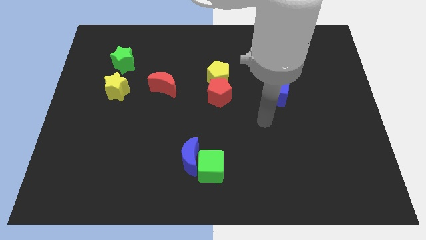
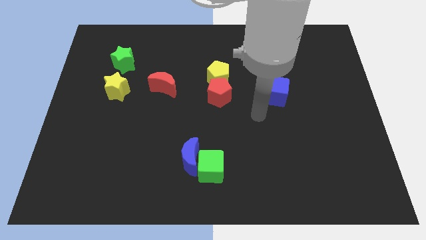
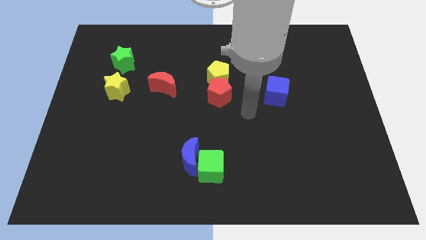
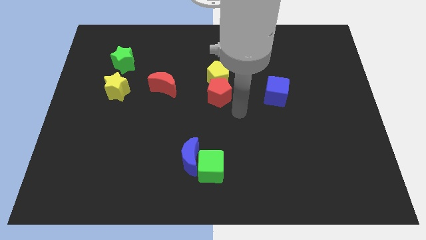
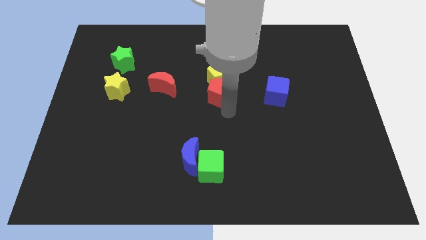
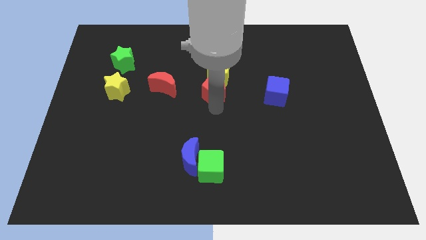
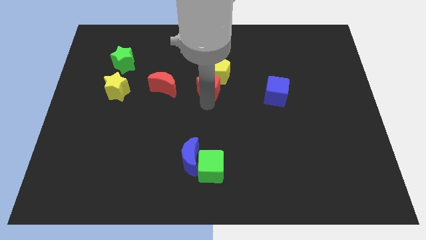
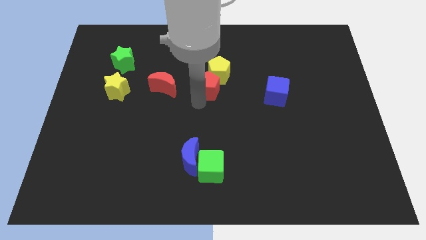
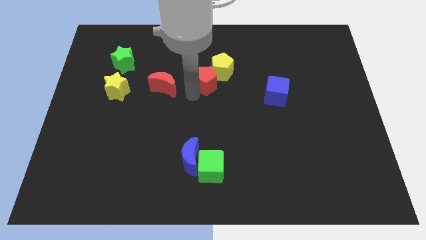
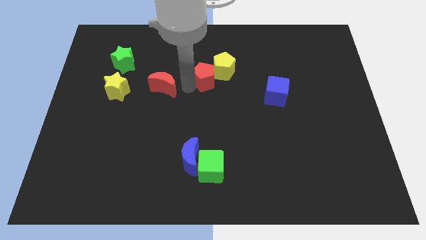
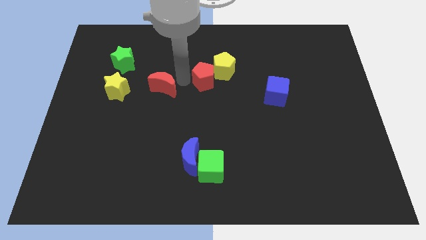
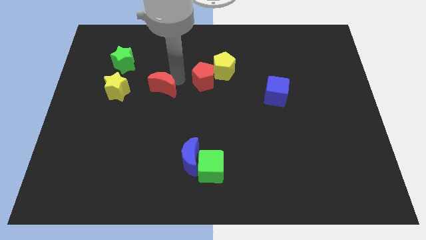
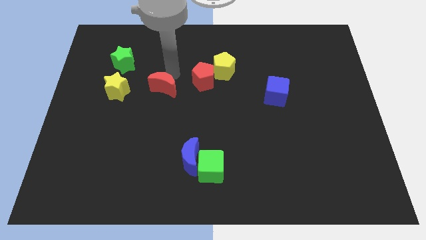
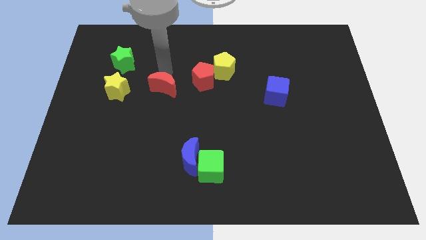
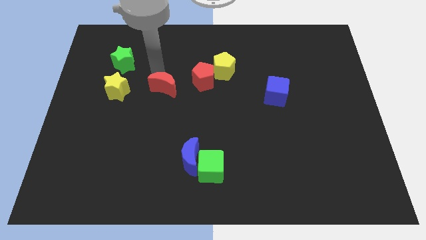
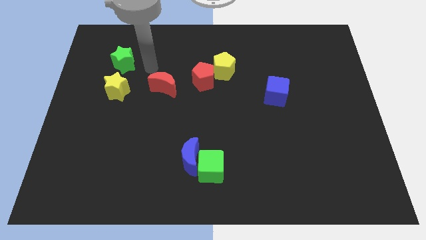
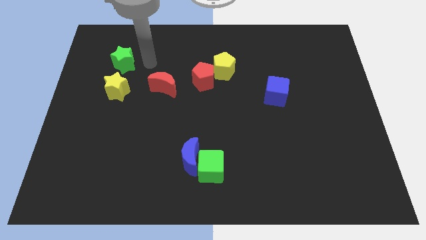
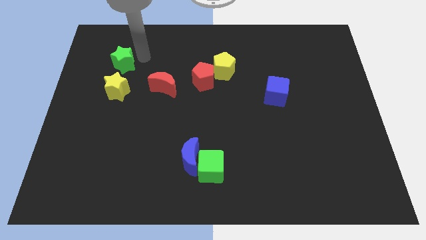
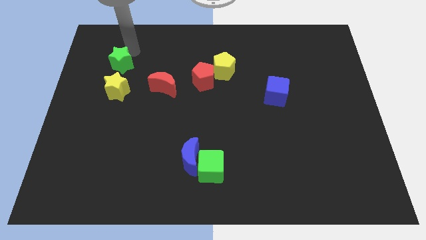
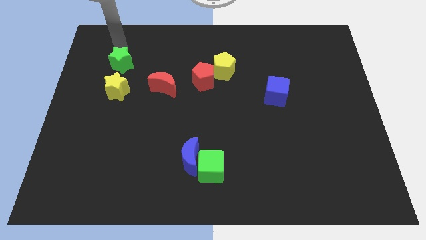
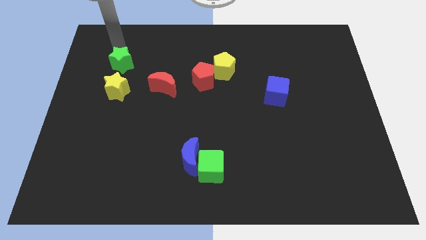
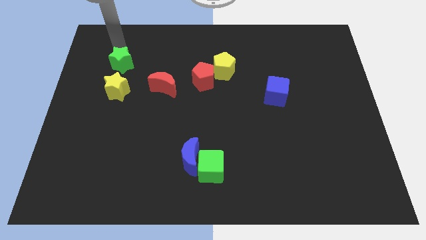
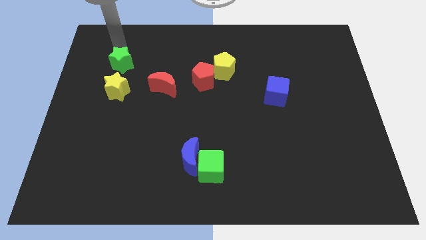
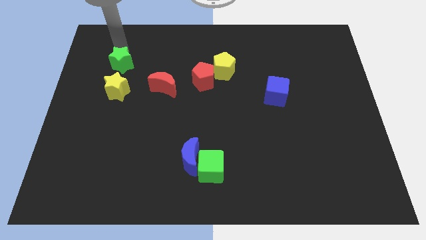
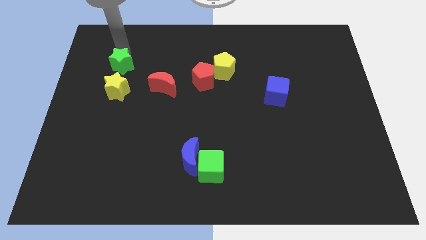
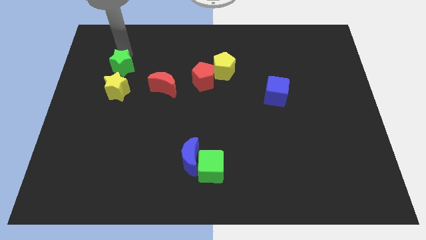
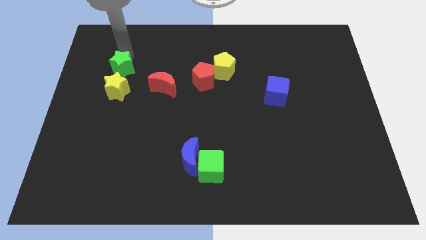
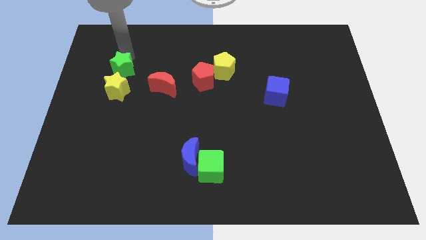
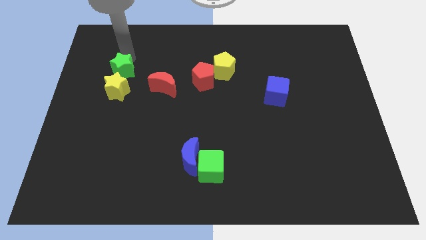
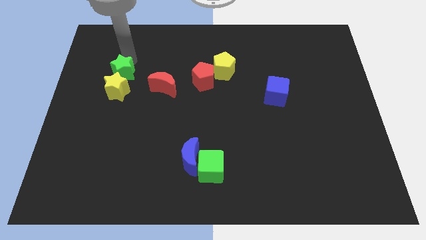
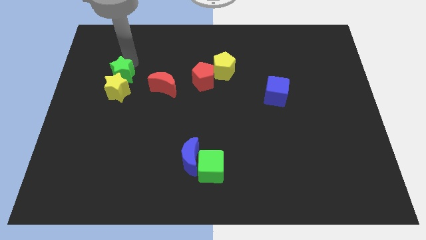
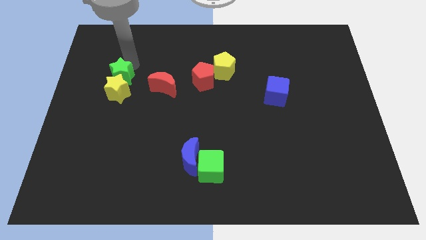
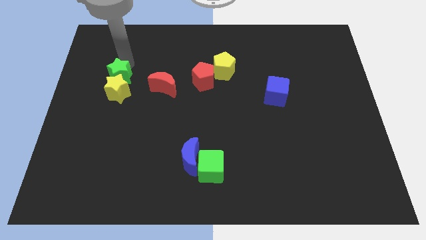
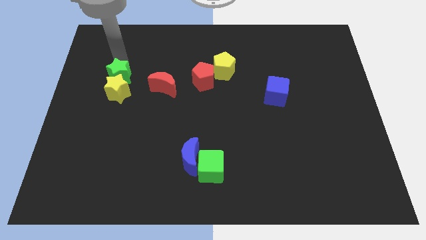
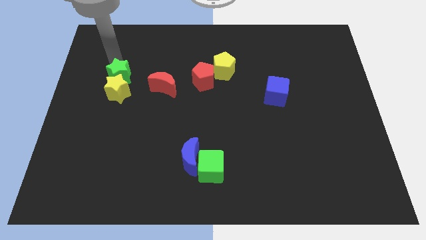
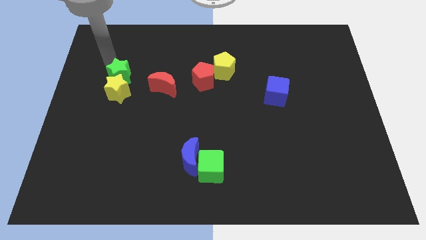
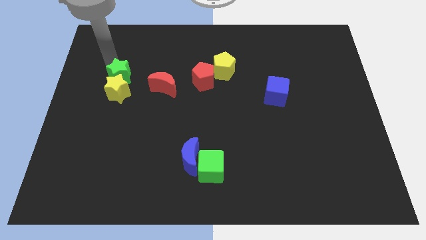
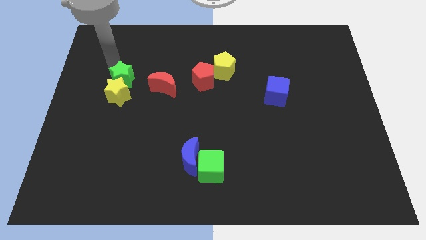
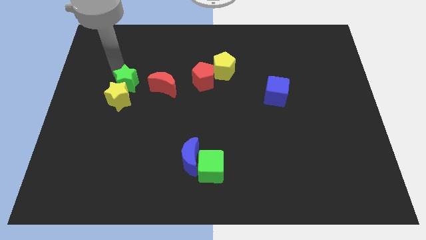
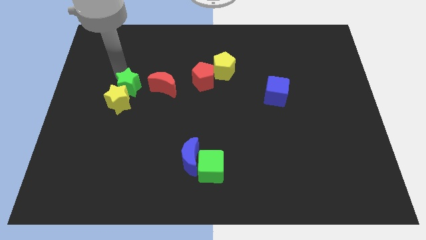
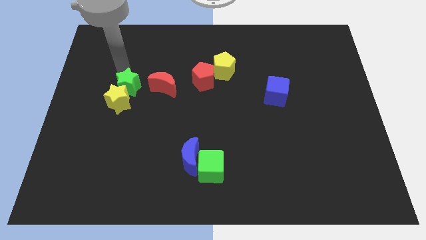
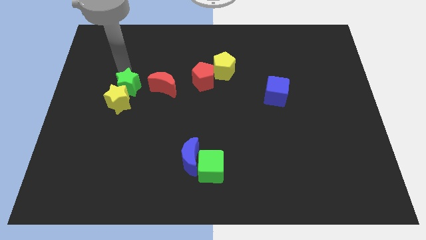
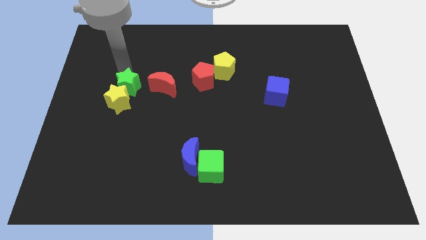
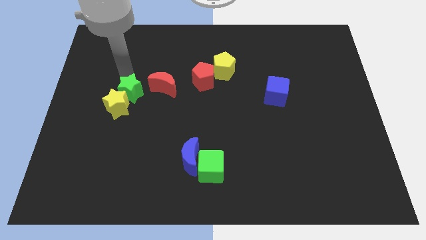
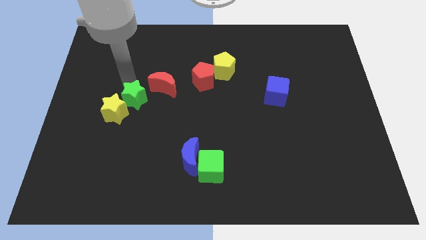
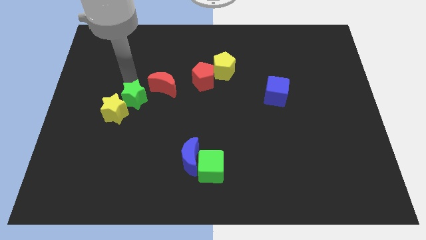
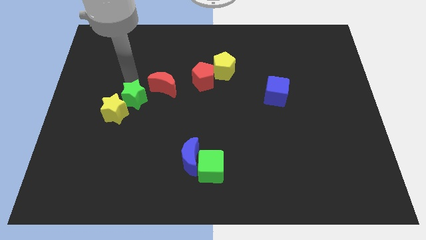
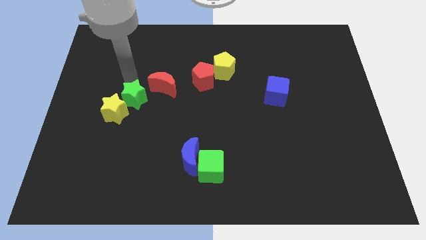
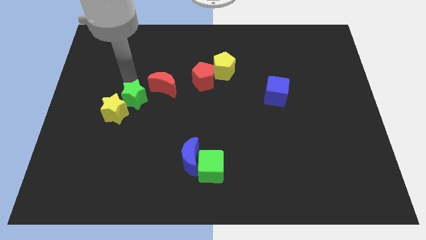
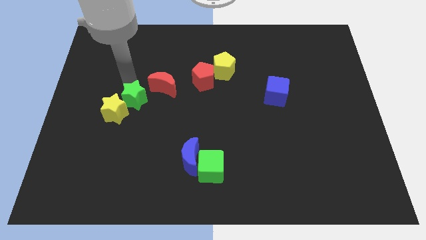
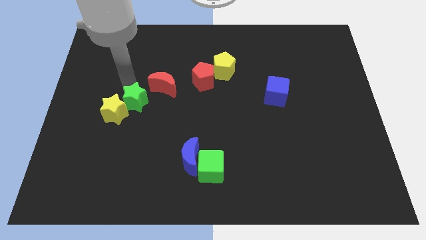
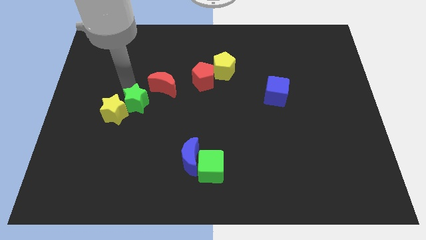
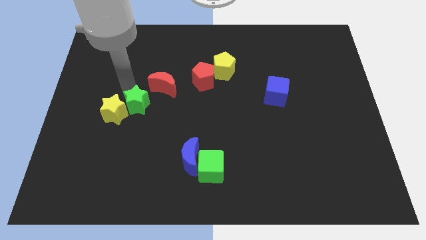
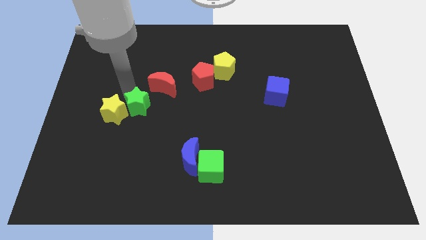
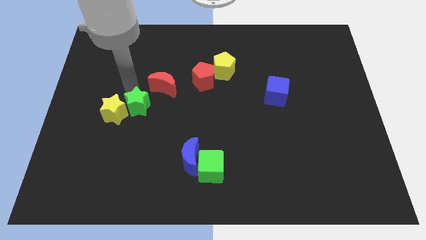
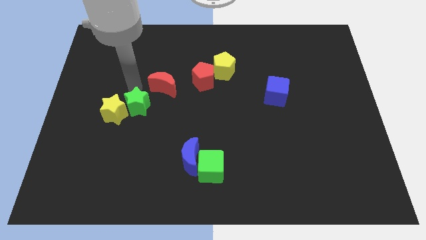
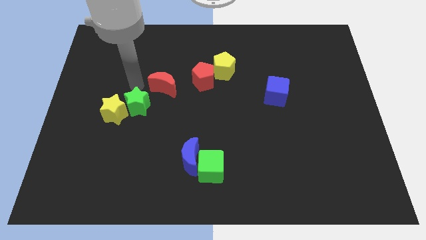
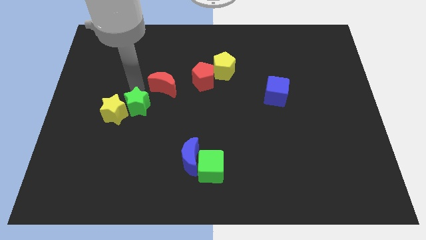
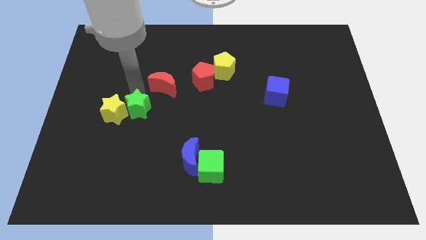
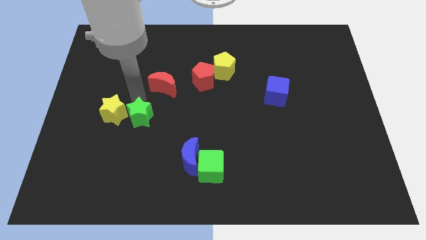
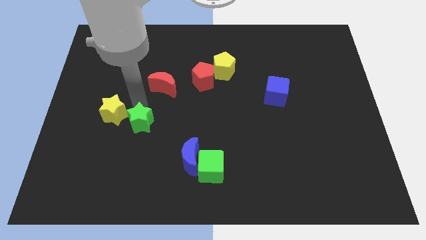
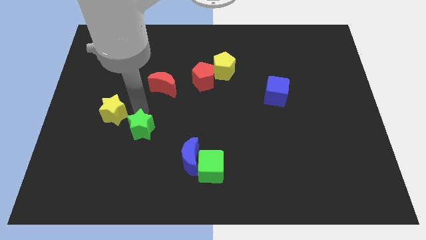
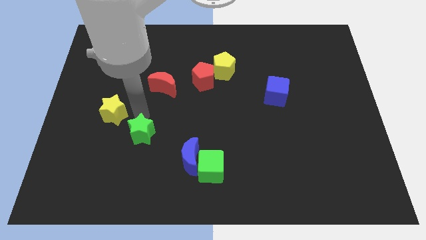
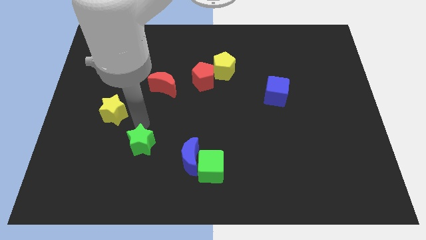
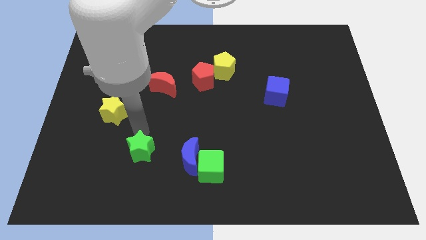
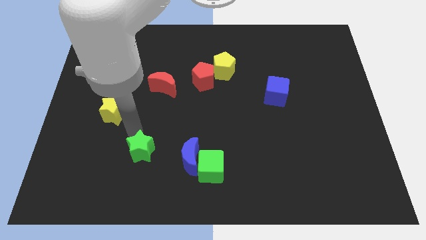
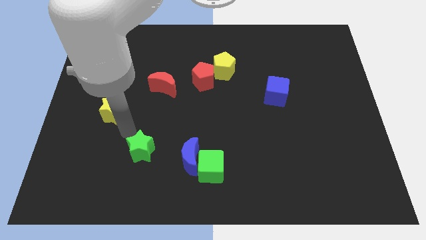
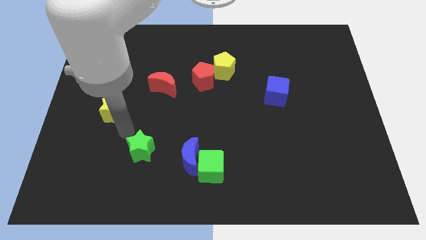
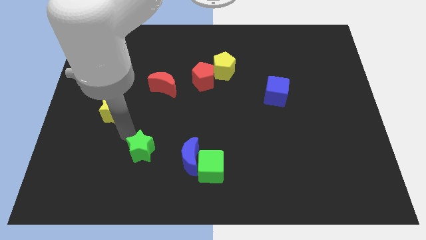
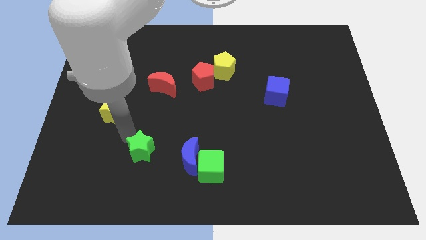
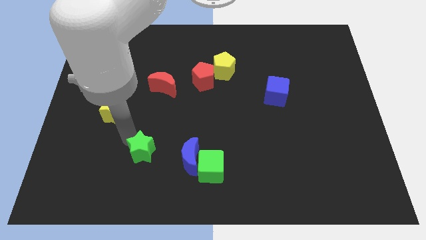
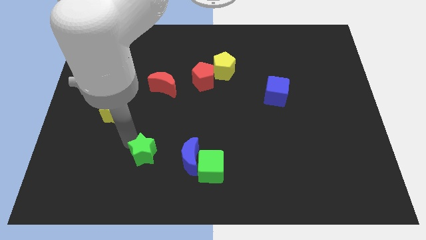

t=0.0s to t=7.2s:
slide the green star to the left side of the green cube
